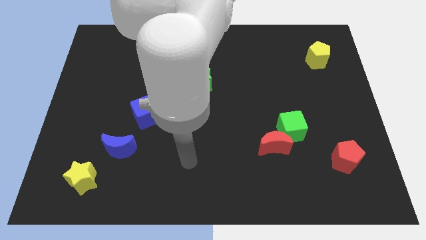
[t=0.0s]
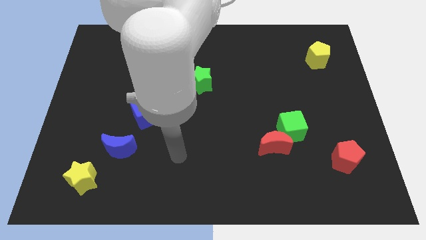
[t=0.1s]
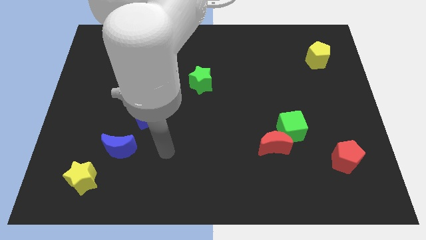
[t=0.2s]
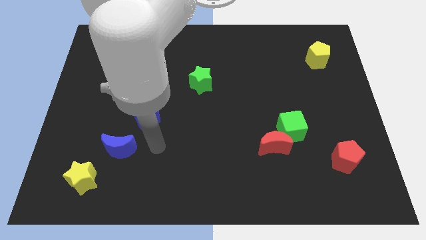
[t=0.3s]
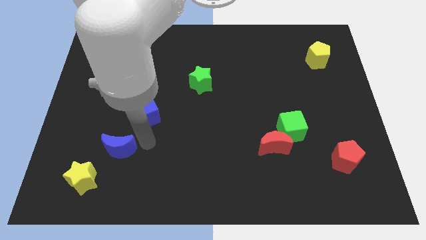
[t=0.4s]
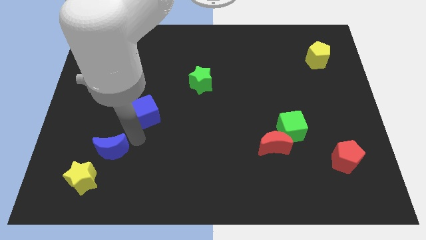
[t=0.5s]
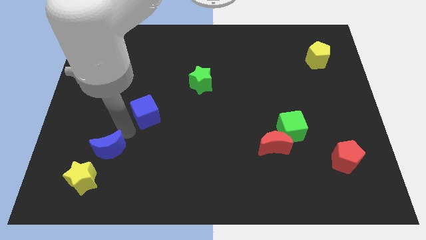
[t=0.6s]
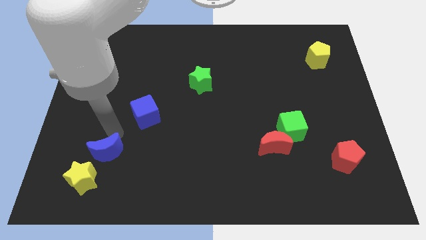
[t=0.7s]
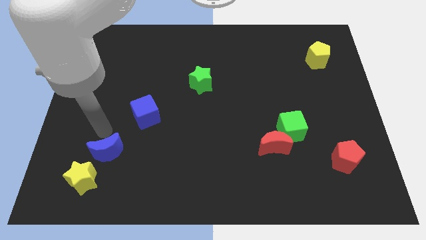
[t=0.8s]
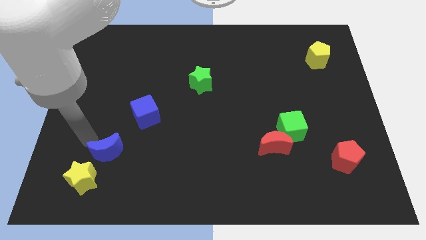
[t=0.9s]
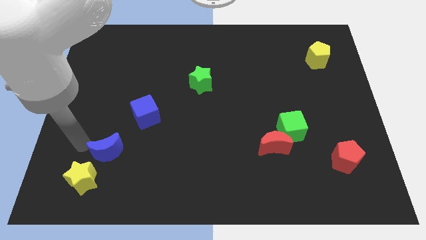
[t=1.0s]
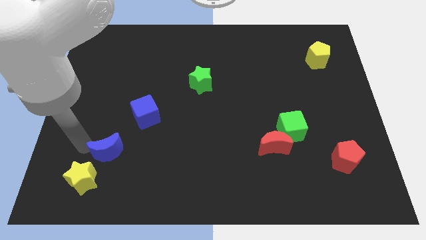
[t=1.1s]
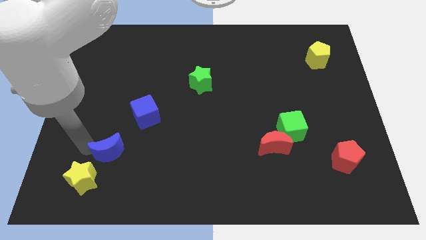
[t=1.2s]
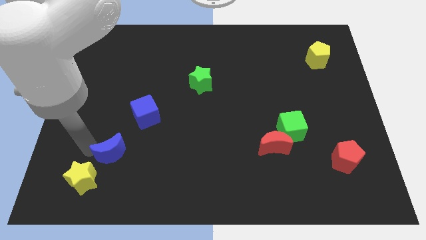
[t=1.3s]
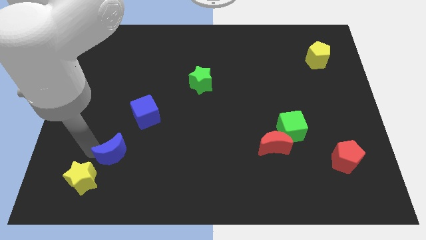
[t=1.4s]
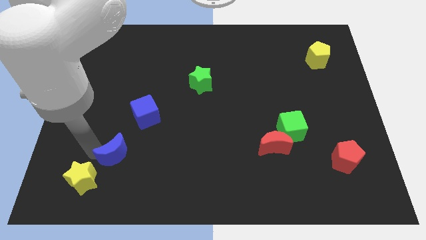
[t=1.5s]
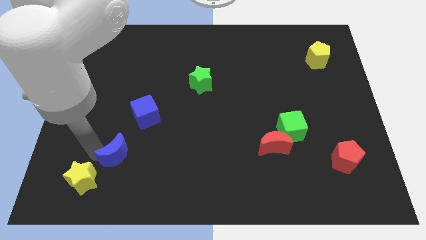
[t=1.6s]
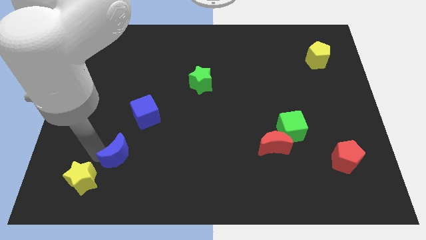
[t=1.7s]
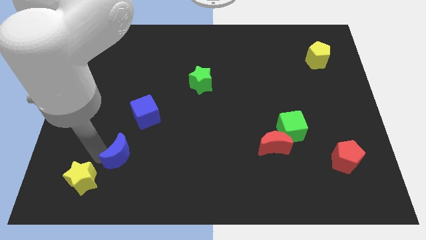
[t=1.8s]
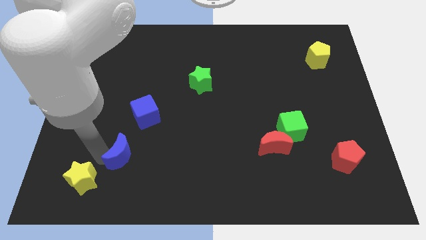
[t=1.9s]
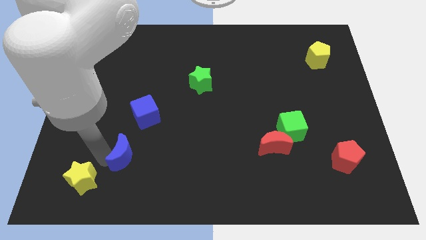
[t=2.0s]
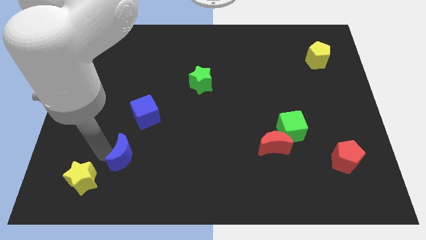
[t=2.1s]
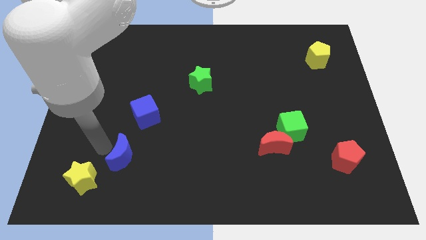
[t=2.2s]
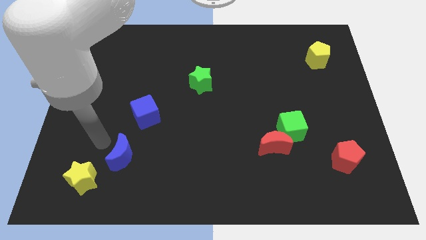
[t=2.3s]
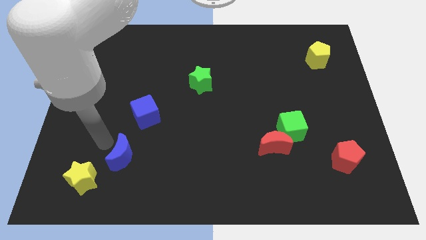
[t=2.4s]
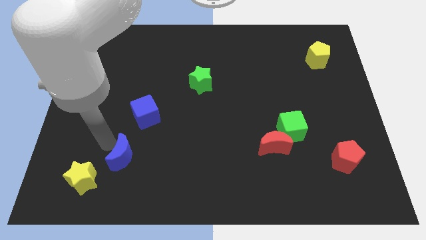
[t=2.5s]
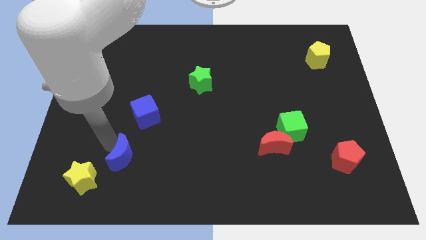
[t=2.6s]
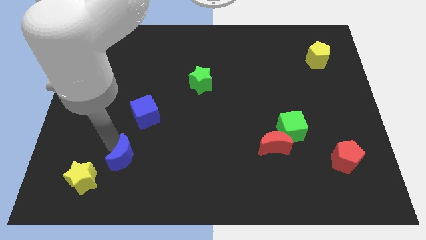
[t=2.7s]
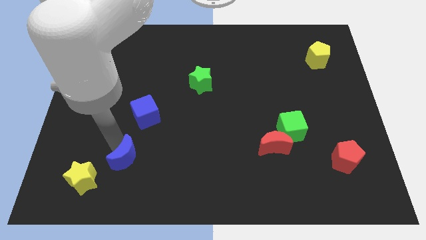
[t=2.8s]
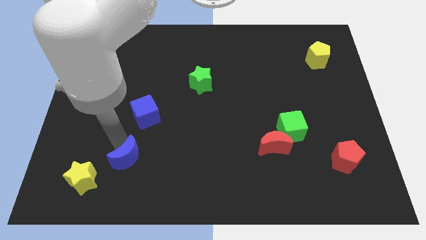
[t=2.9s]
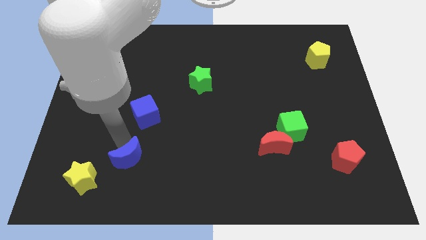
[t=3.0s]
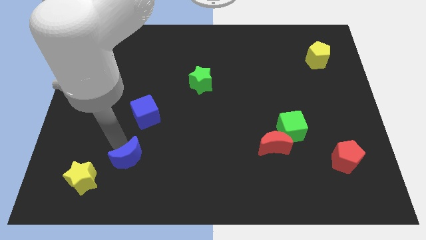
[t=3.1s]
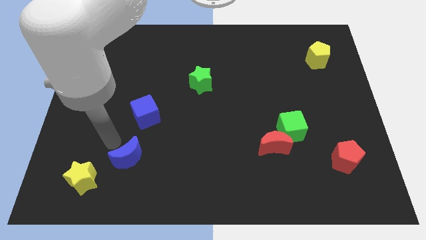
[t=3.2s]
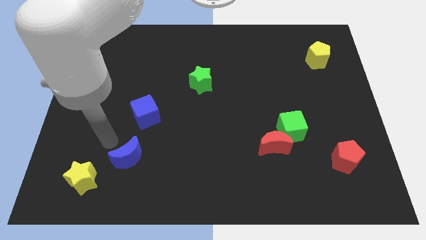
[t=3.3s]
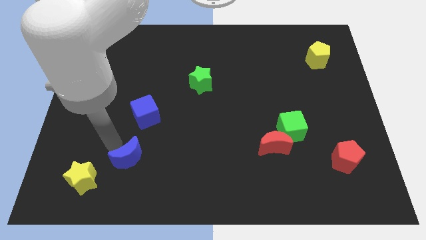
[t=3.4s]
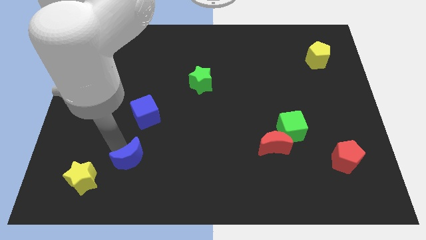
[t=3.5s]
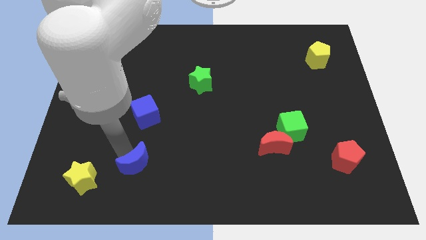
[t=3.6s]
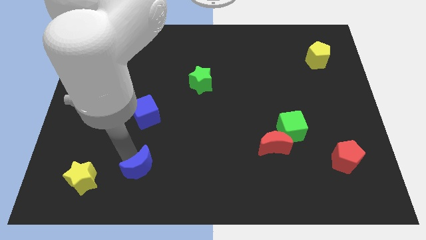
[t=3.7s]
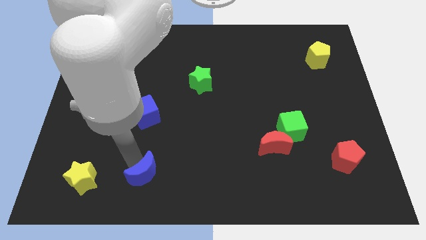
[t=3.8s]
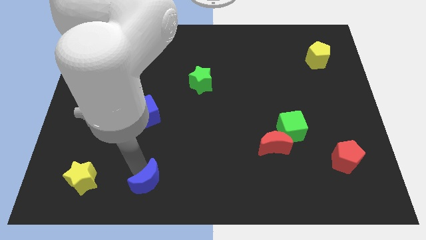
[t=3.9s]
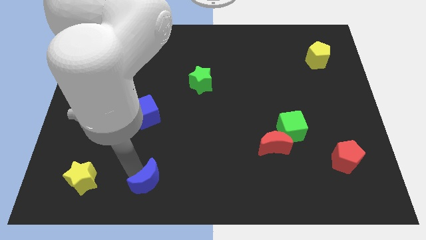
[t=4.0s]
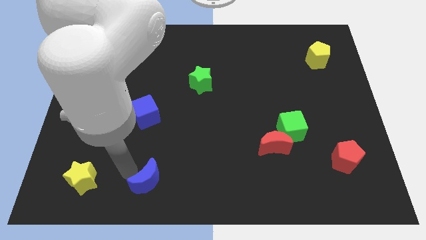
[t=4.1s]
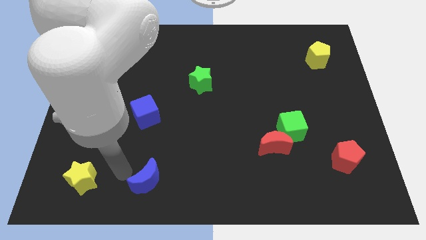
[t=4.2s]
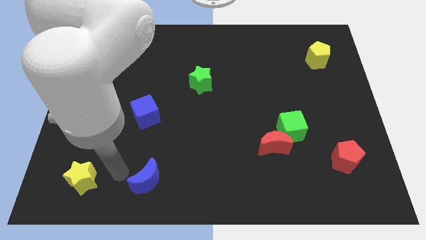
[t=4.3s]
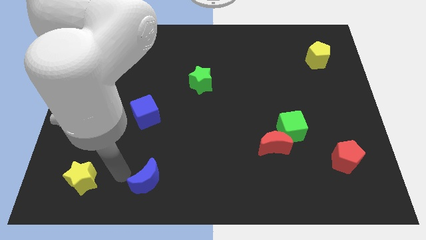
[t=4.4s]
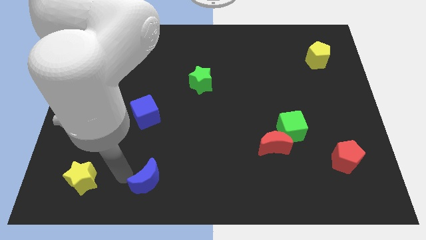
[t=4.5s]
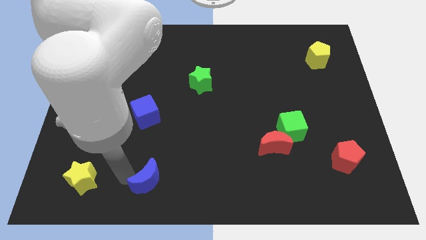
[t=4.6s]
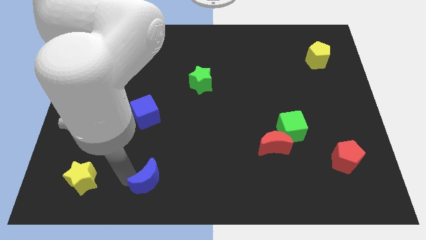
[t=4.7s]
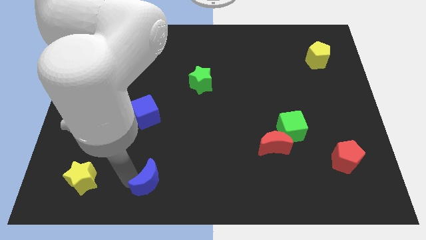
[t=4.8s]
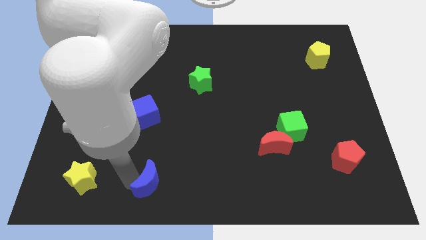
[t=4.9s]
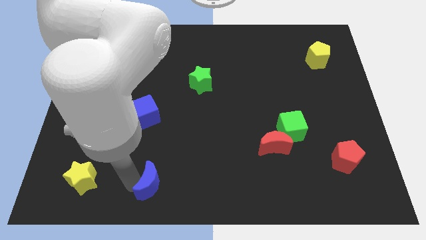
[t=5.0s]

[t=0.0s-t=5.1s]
push the blue moon to the bottom

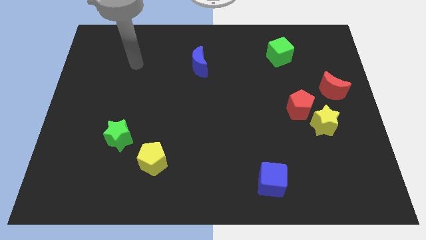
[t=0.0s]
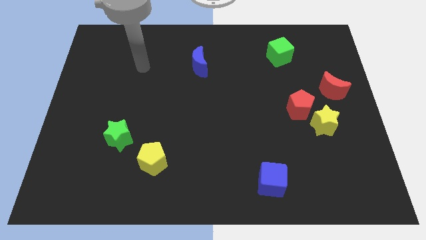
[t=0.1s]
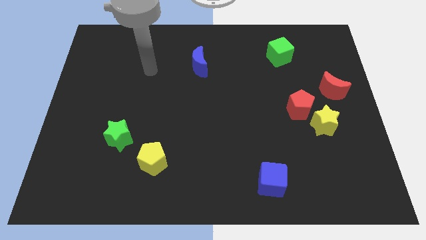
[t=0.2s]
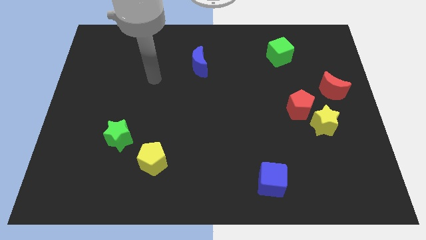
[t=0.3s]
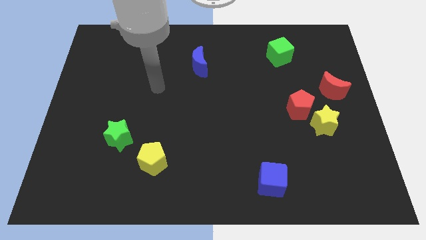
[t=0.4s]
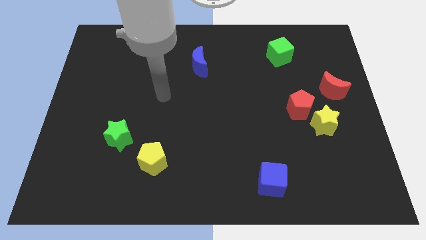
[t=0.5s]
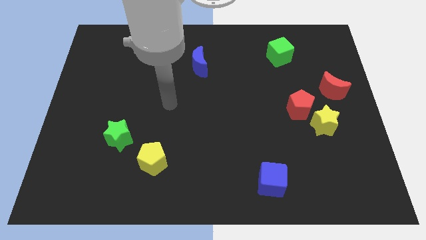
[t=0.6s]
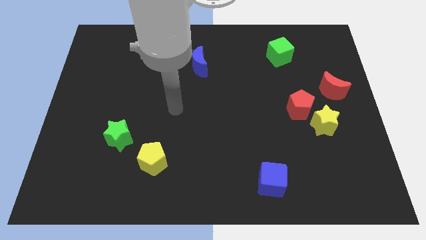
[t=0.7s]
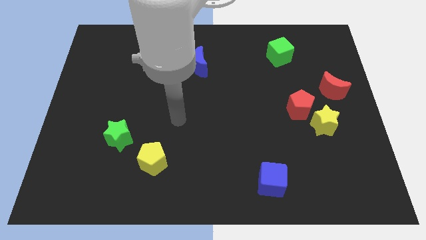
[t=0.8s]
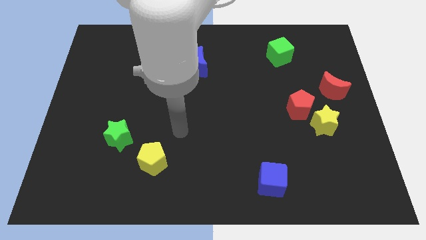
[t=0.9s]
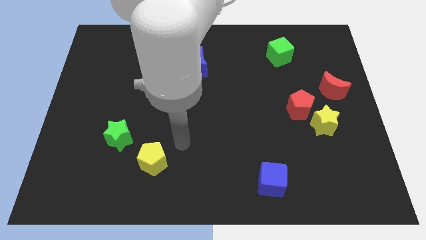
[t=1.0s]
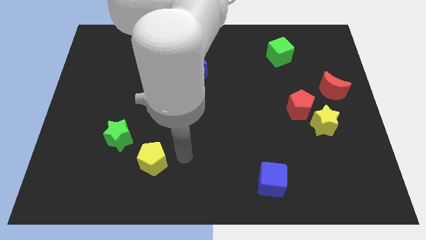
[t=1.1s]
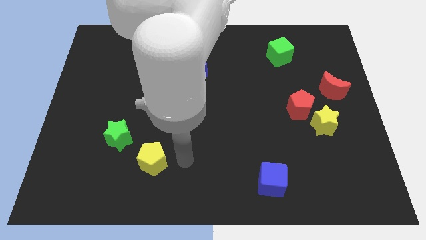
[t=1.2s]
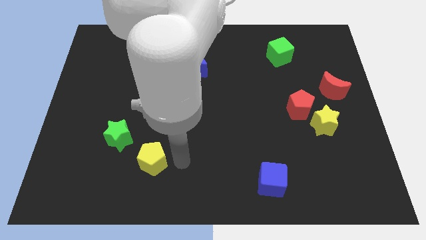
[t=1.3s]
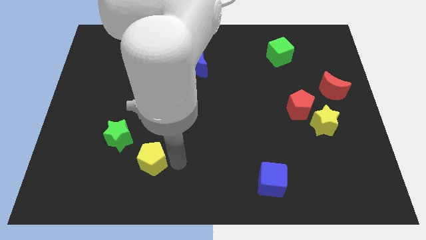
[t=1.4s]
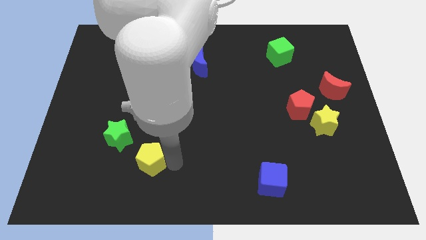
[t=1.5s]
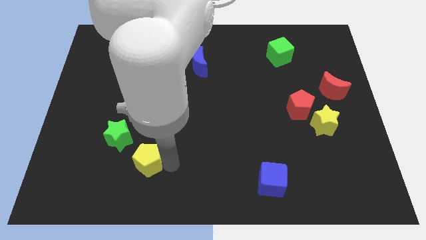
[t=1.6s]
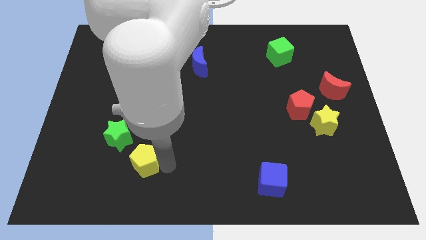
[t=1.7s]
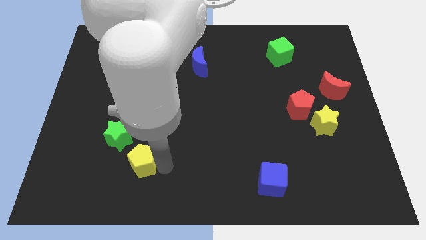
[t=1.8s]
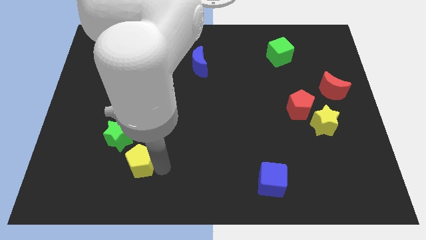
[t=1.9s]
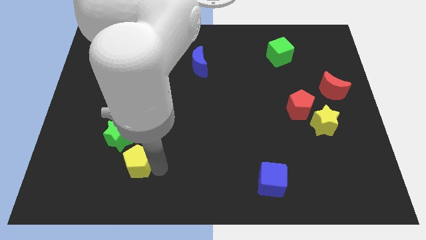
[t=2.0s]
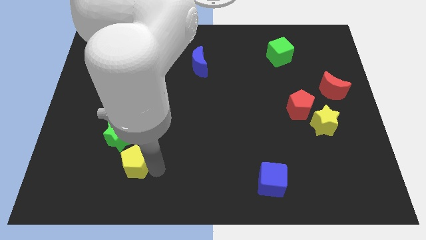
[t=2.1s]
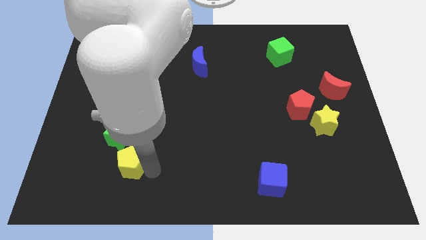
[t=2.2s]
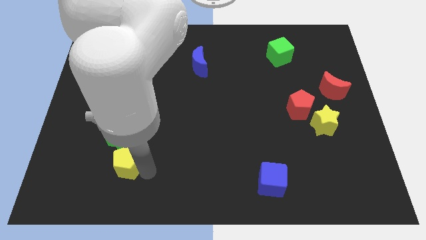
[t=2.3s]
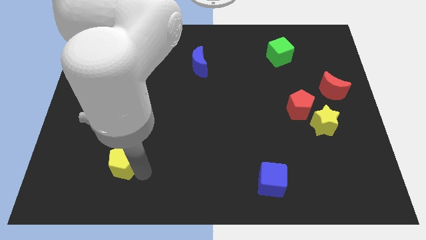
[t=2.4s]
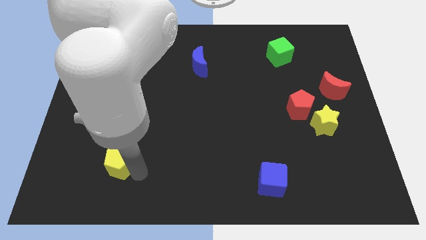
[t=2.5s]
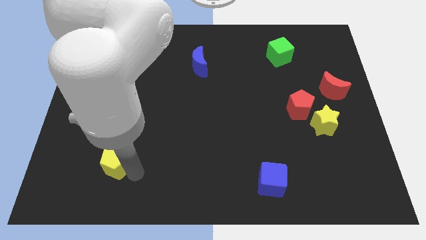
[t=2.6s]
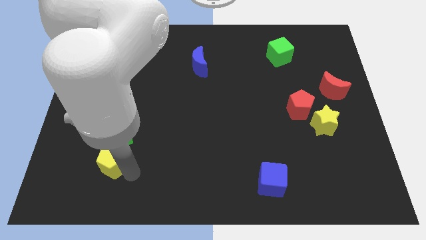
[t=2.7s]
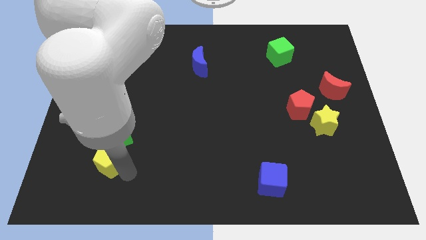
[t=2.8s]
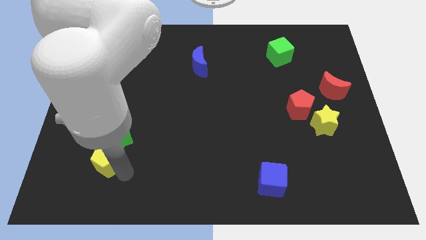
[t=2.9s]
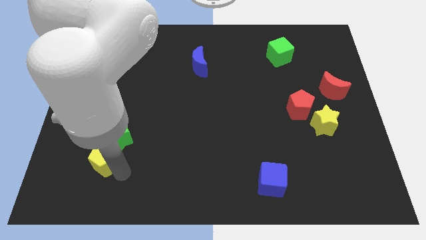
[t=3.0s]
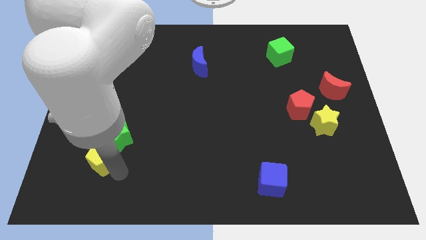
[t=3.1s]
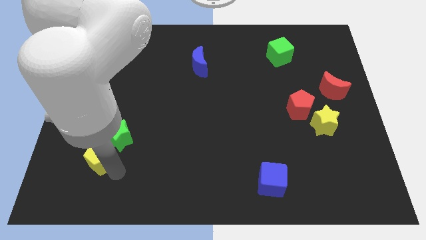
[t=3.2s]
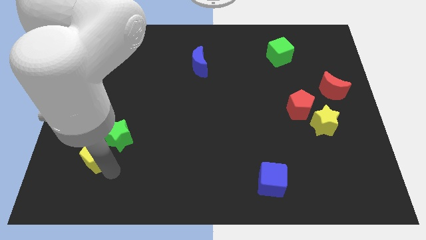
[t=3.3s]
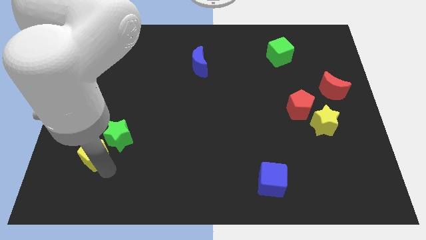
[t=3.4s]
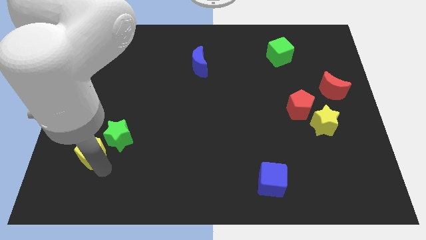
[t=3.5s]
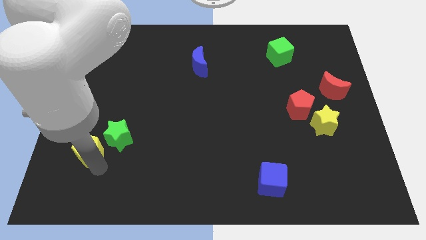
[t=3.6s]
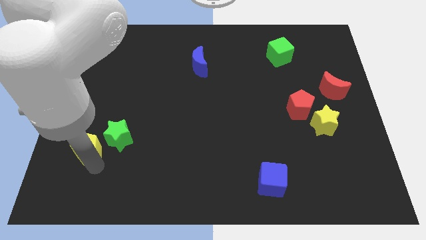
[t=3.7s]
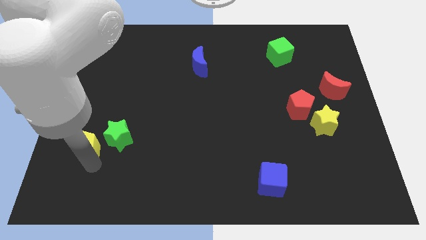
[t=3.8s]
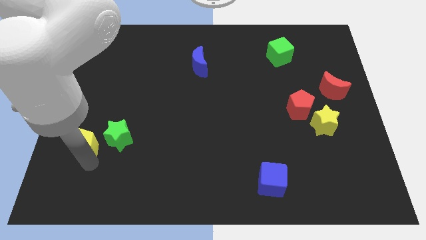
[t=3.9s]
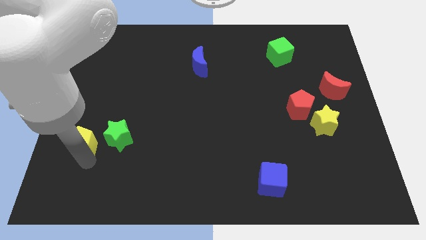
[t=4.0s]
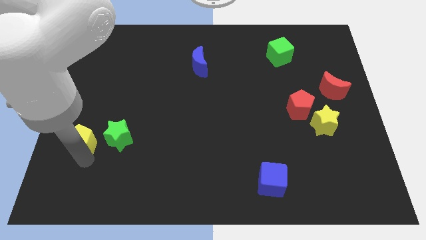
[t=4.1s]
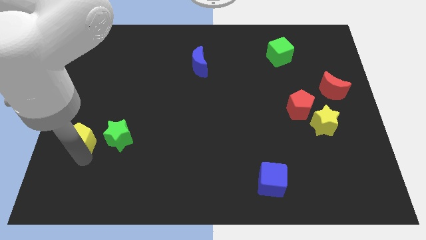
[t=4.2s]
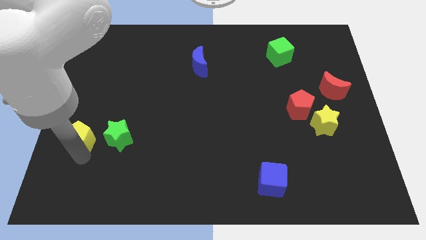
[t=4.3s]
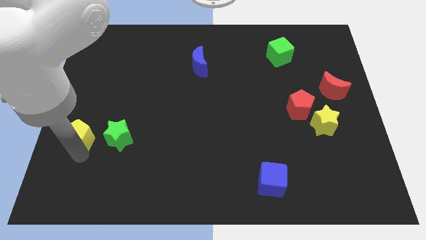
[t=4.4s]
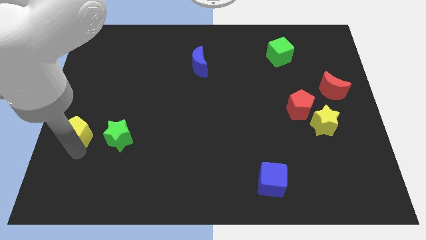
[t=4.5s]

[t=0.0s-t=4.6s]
put the yellow pentagon to the left side
